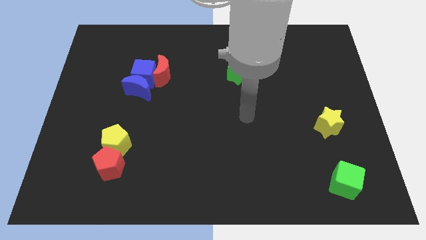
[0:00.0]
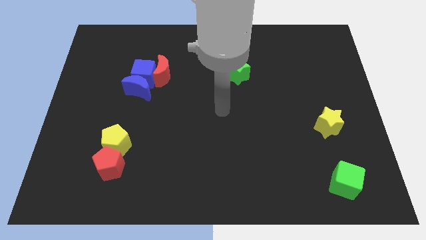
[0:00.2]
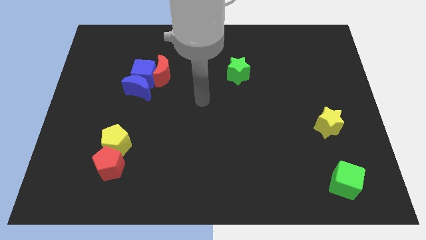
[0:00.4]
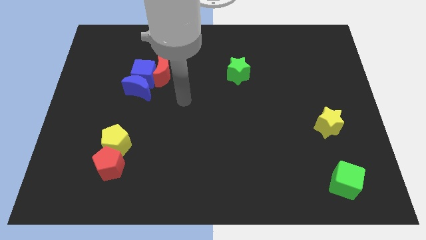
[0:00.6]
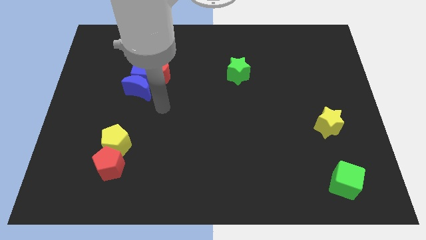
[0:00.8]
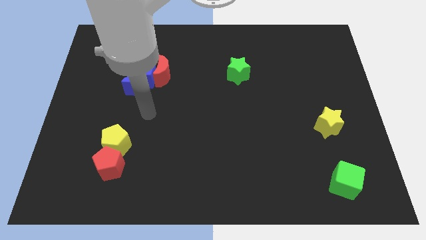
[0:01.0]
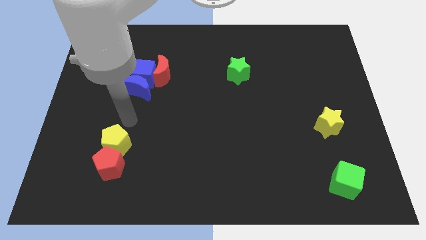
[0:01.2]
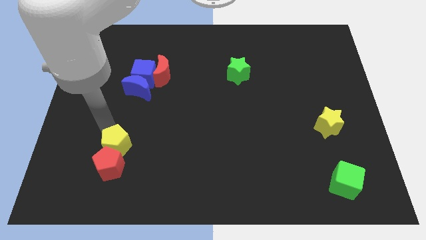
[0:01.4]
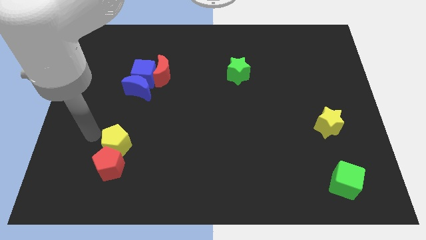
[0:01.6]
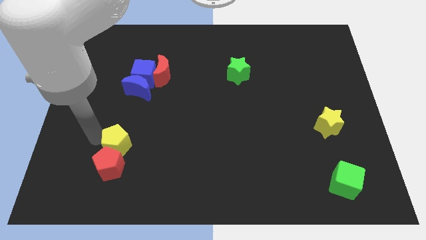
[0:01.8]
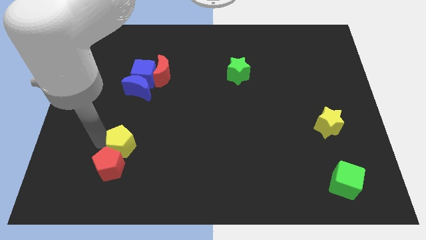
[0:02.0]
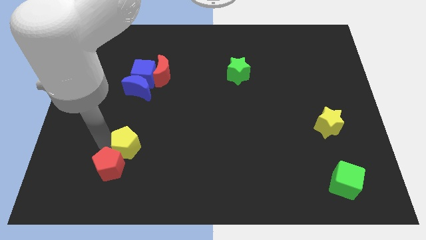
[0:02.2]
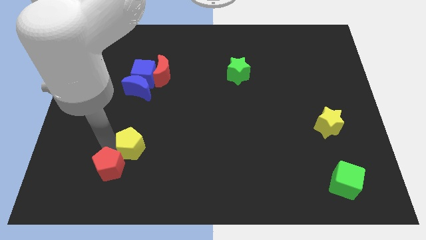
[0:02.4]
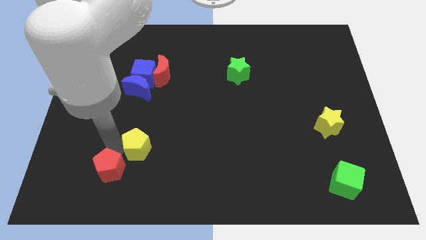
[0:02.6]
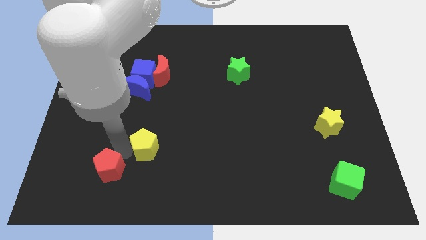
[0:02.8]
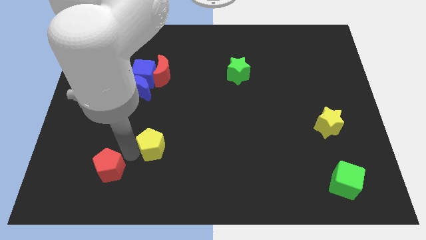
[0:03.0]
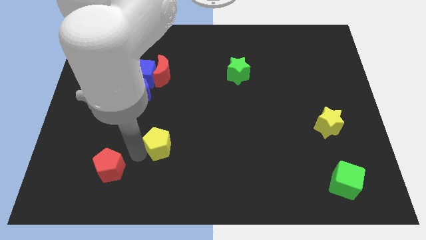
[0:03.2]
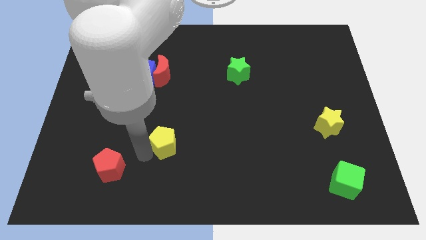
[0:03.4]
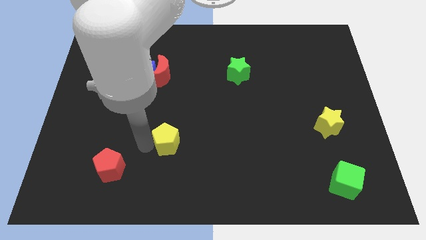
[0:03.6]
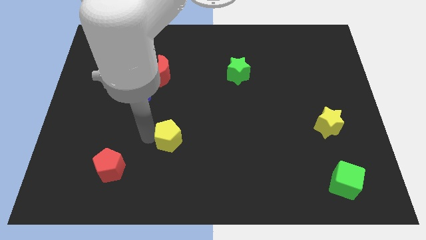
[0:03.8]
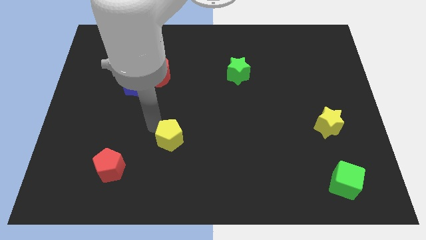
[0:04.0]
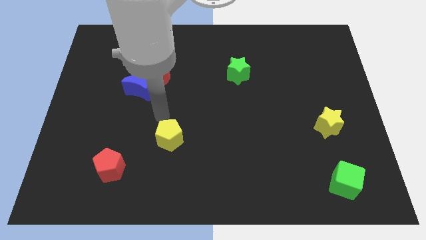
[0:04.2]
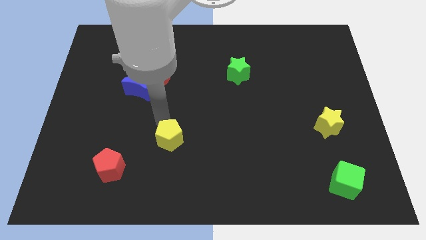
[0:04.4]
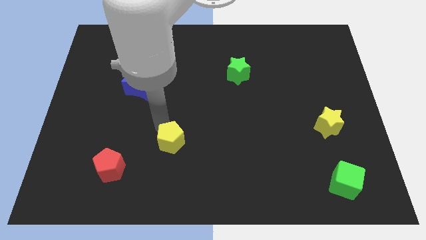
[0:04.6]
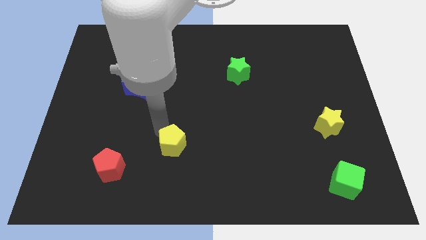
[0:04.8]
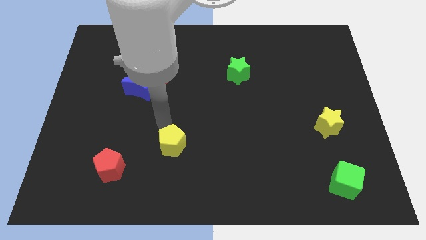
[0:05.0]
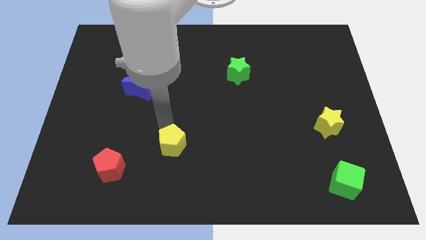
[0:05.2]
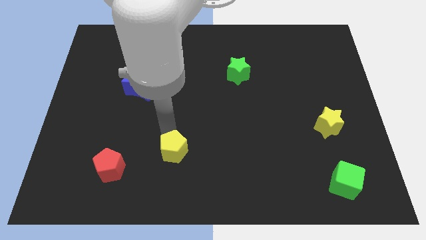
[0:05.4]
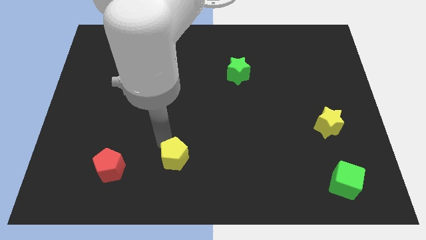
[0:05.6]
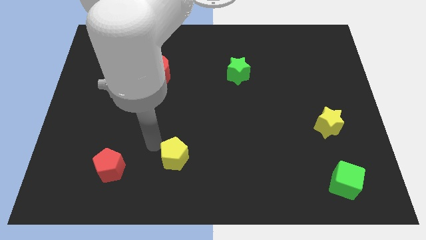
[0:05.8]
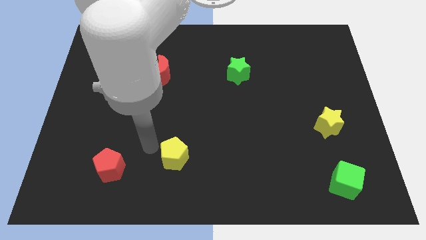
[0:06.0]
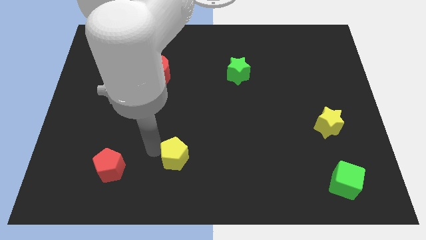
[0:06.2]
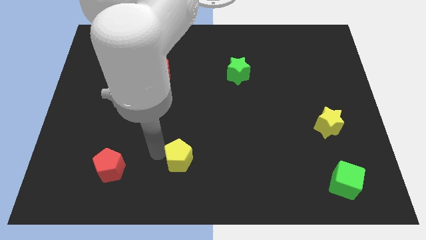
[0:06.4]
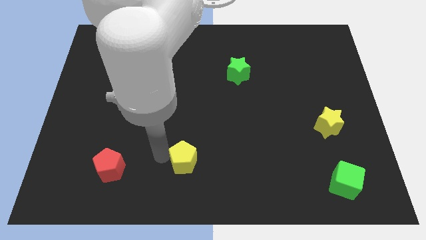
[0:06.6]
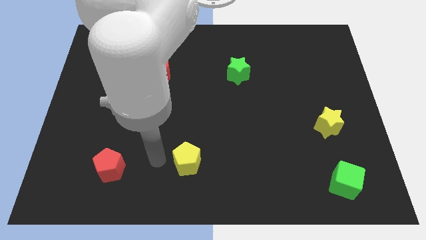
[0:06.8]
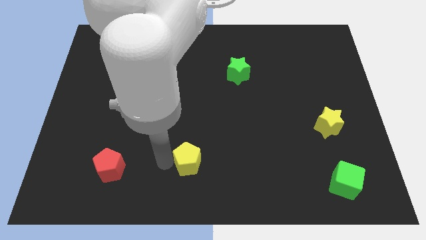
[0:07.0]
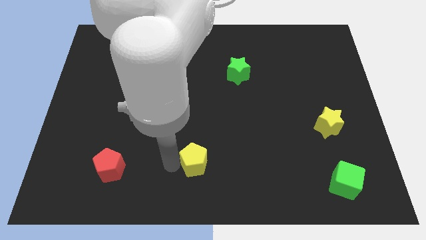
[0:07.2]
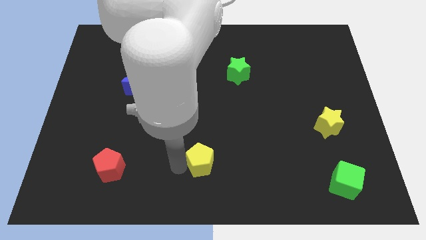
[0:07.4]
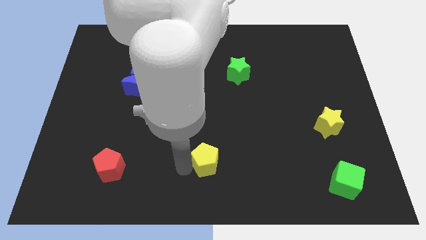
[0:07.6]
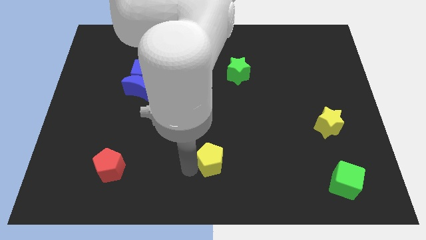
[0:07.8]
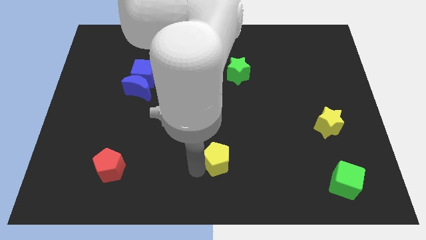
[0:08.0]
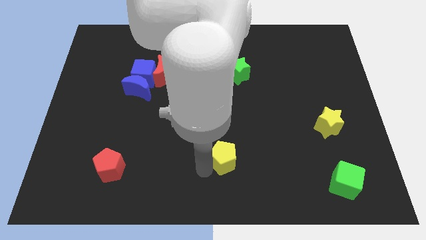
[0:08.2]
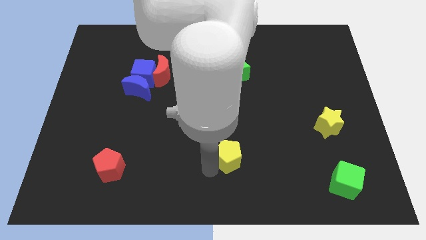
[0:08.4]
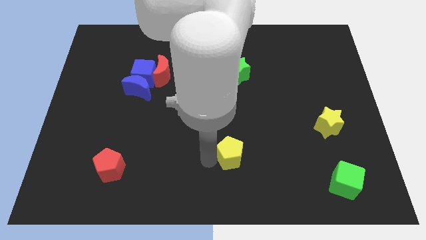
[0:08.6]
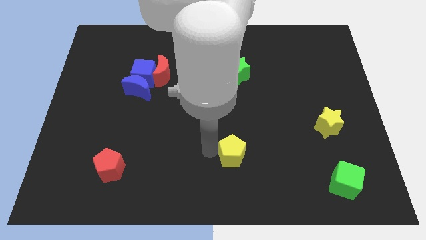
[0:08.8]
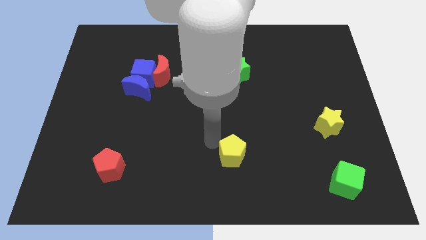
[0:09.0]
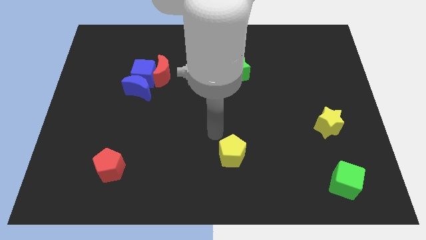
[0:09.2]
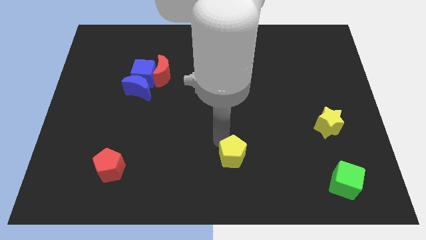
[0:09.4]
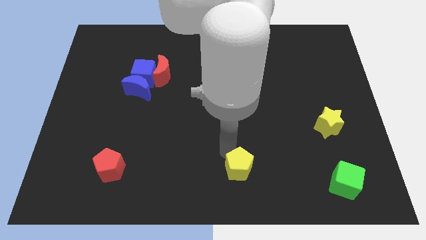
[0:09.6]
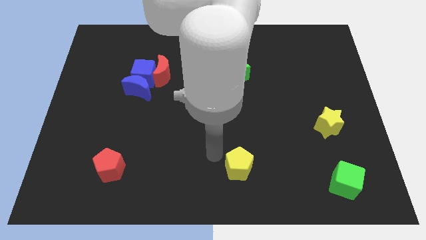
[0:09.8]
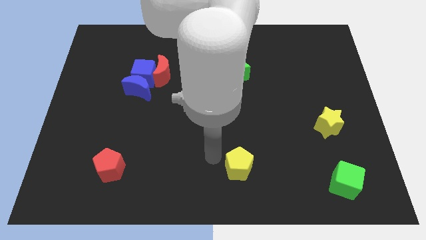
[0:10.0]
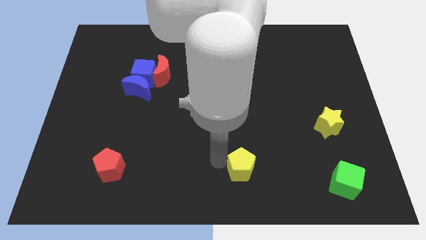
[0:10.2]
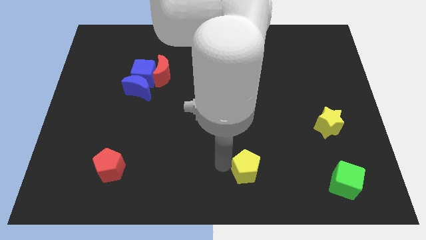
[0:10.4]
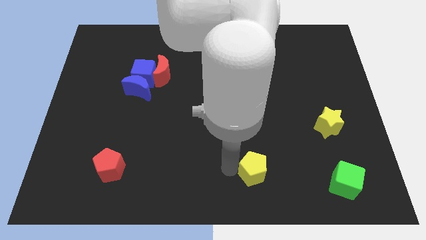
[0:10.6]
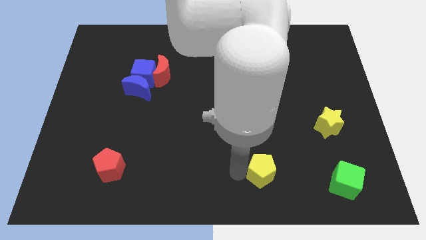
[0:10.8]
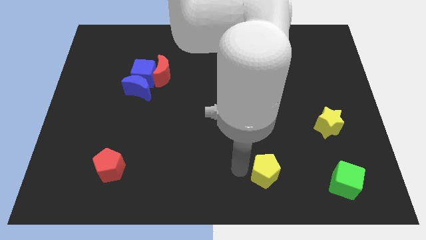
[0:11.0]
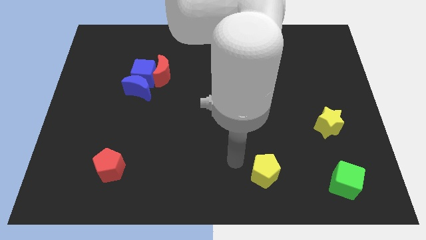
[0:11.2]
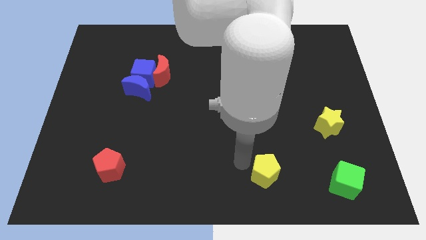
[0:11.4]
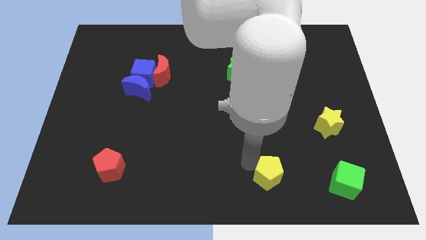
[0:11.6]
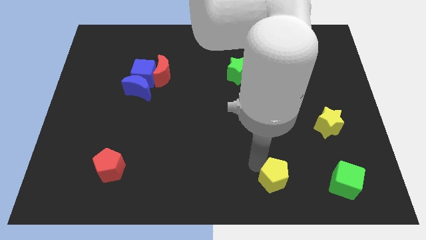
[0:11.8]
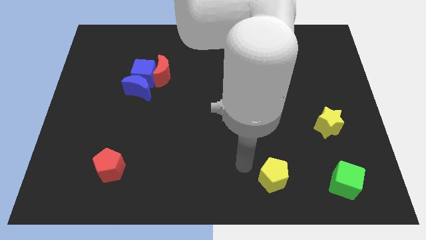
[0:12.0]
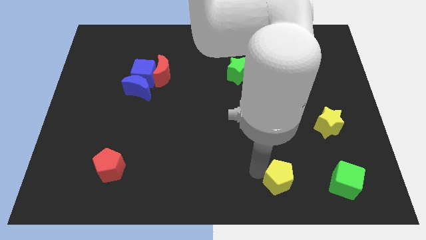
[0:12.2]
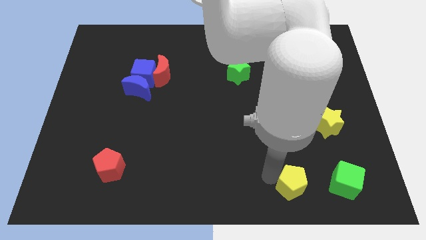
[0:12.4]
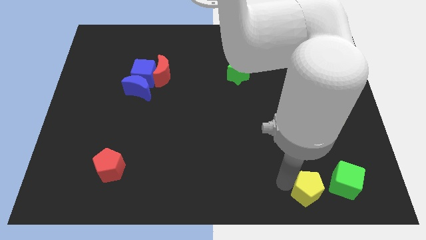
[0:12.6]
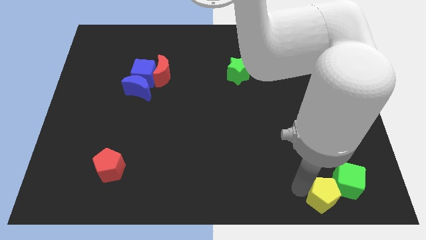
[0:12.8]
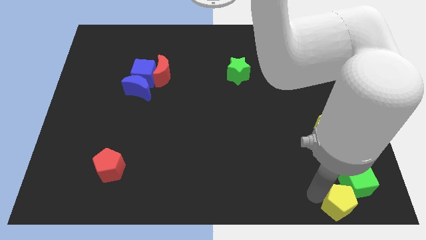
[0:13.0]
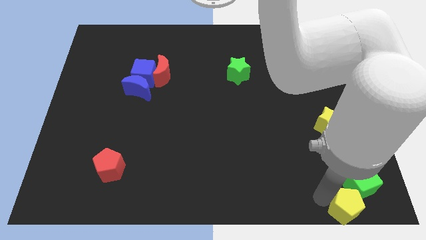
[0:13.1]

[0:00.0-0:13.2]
move the yellow pentagon to the bottom right
